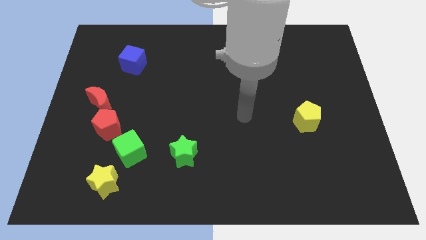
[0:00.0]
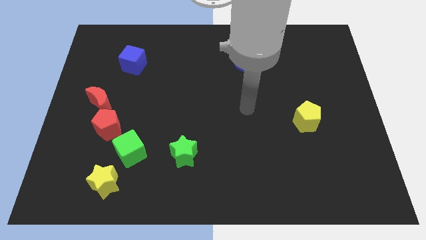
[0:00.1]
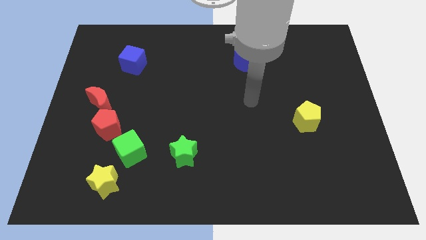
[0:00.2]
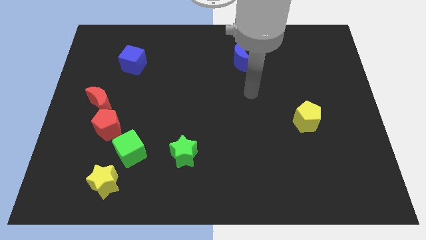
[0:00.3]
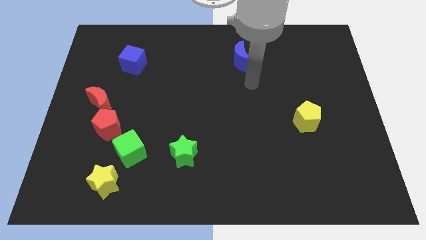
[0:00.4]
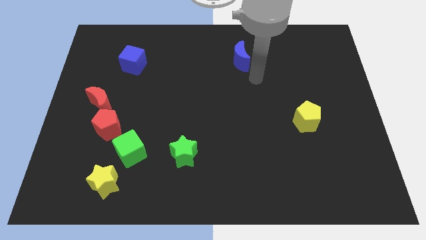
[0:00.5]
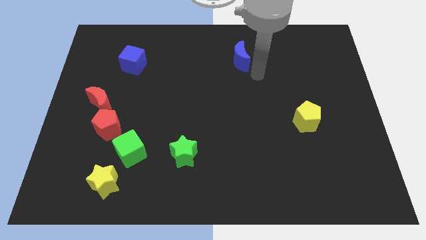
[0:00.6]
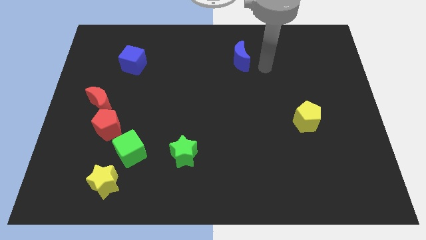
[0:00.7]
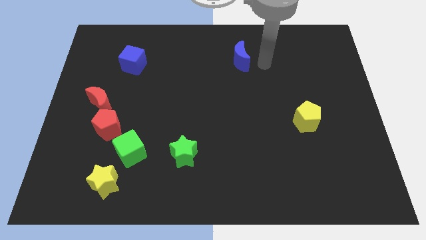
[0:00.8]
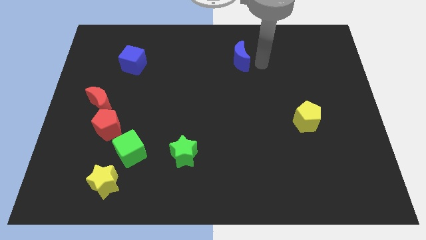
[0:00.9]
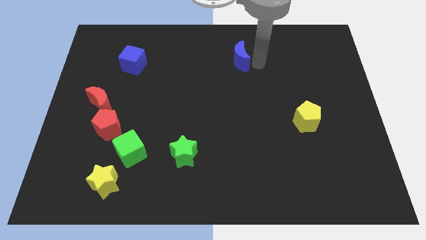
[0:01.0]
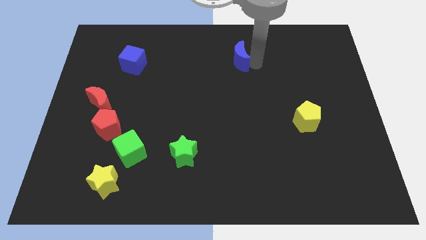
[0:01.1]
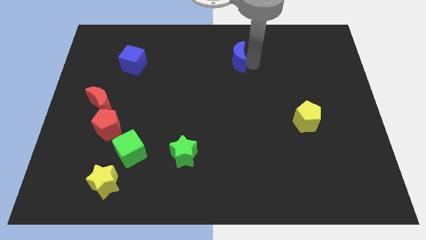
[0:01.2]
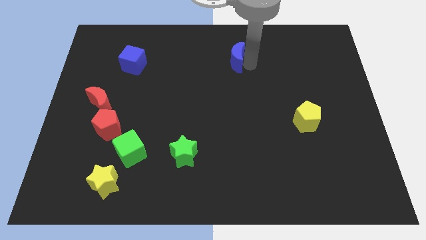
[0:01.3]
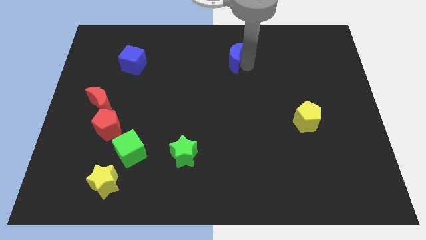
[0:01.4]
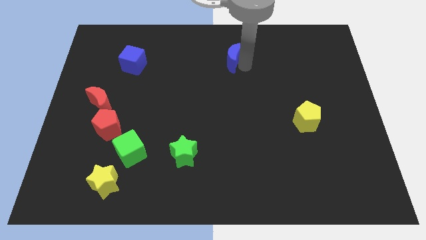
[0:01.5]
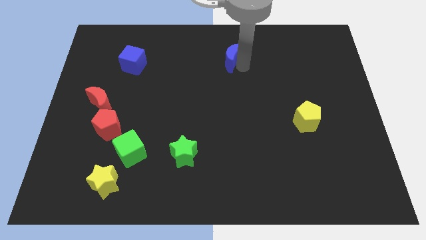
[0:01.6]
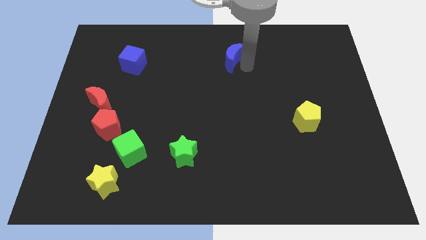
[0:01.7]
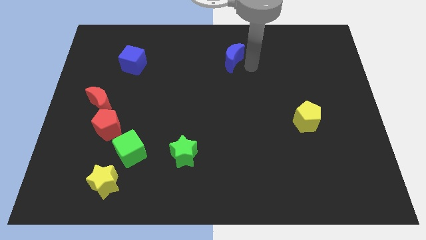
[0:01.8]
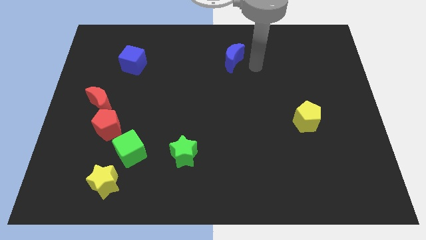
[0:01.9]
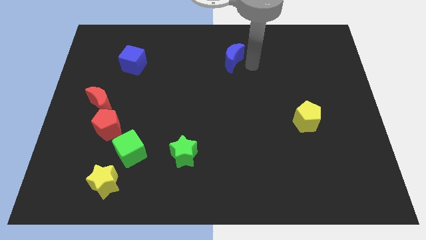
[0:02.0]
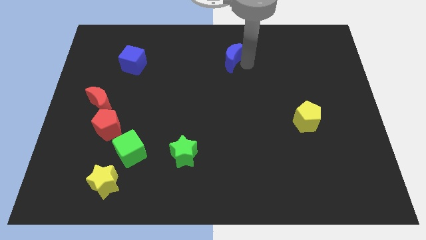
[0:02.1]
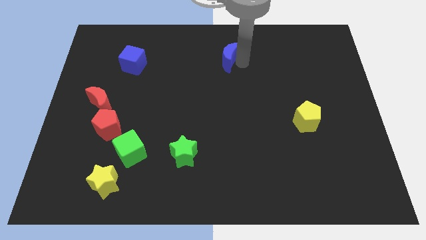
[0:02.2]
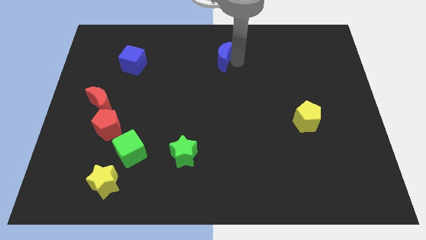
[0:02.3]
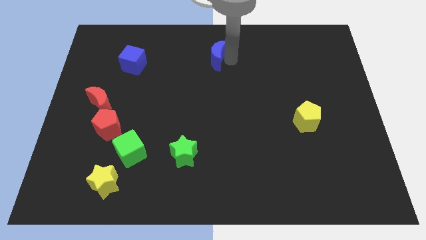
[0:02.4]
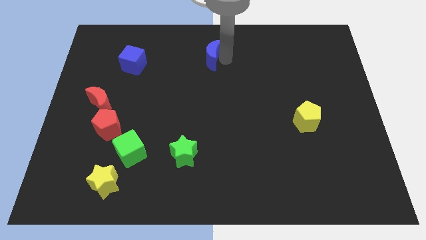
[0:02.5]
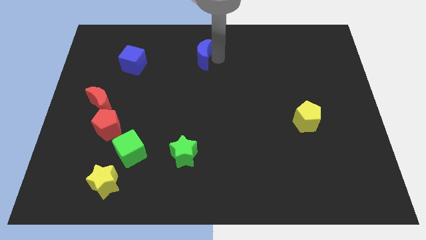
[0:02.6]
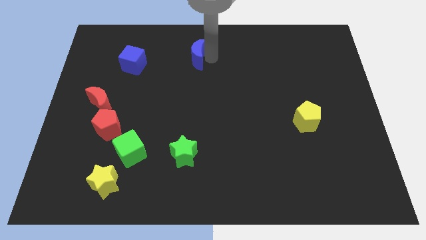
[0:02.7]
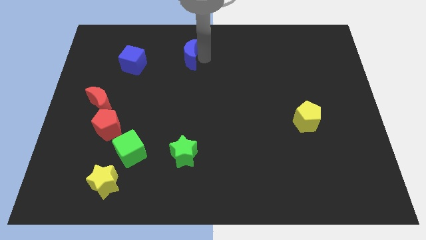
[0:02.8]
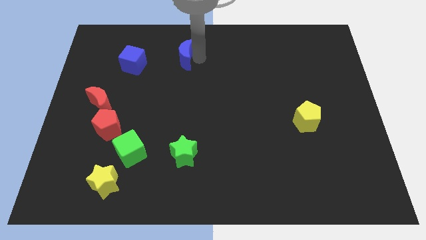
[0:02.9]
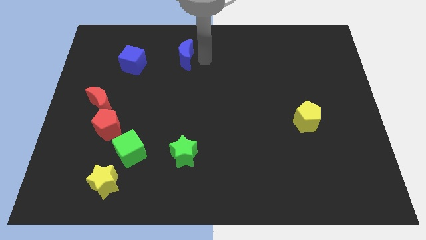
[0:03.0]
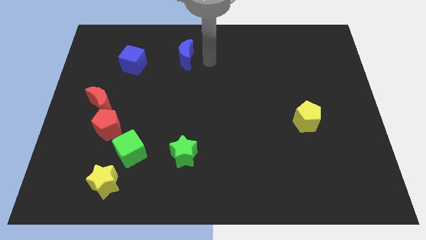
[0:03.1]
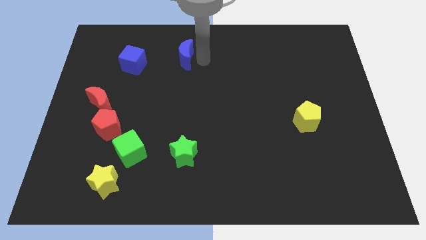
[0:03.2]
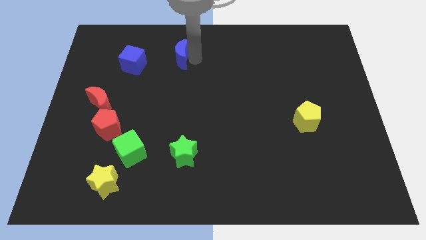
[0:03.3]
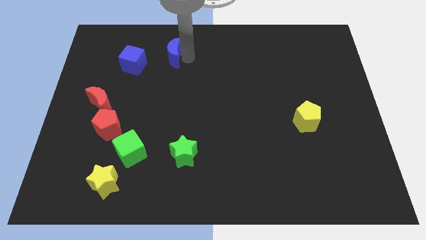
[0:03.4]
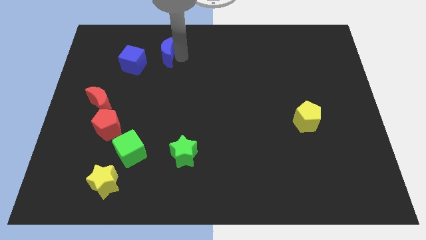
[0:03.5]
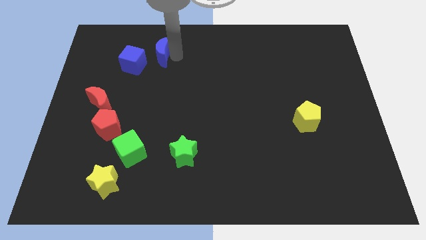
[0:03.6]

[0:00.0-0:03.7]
move the blue moon left

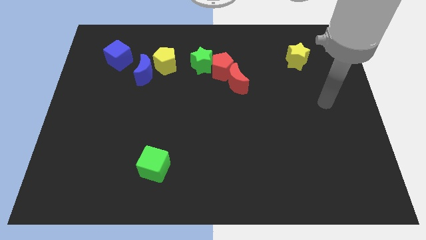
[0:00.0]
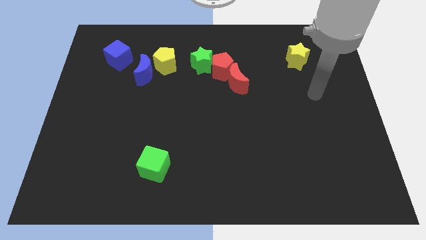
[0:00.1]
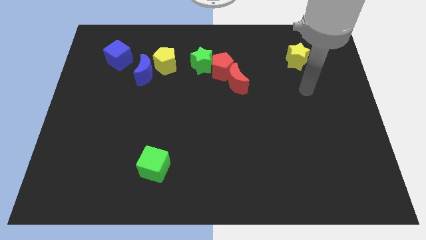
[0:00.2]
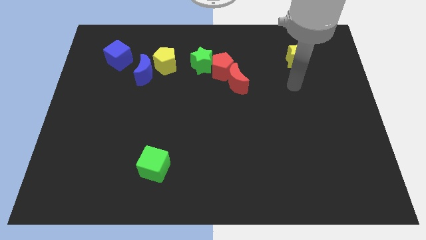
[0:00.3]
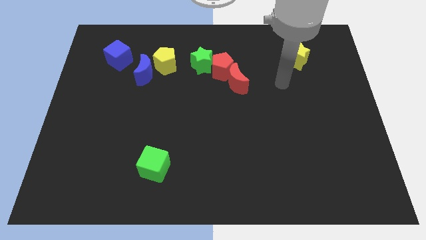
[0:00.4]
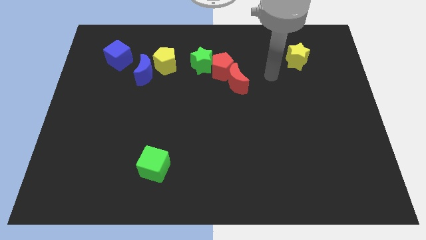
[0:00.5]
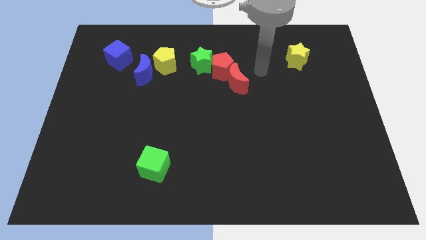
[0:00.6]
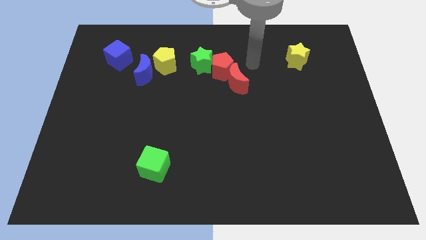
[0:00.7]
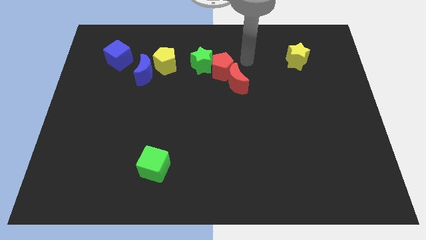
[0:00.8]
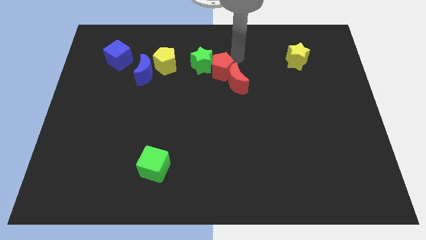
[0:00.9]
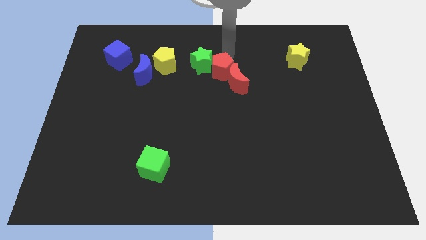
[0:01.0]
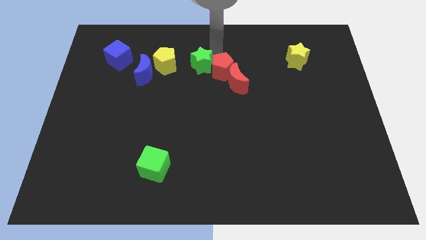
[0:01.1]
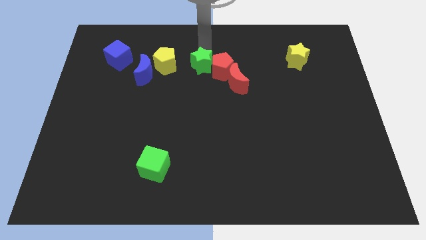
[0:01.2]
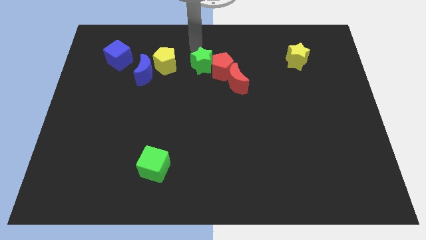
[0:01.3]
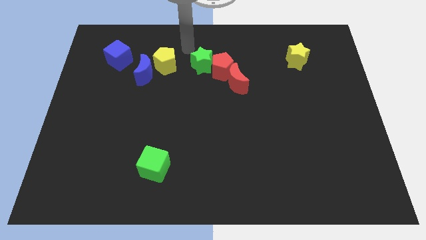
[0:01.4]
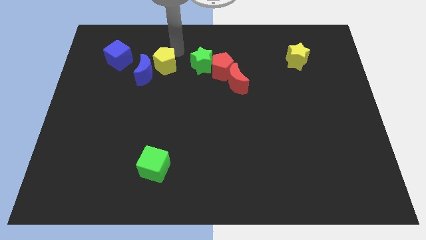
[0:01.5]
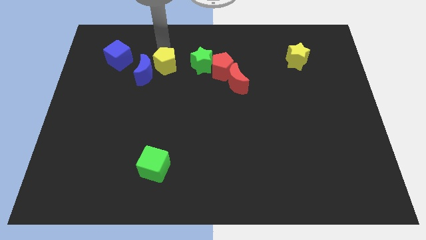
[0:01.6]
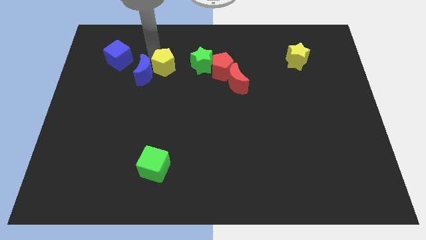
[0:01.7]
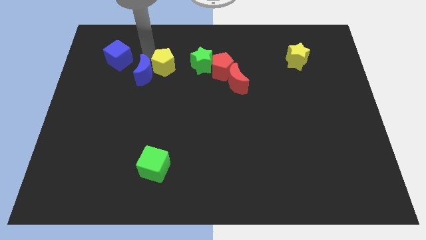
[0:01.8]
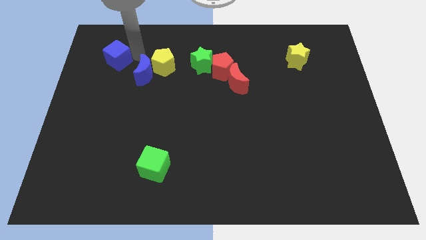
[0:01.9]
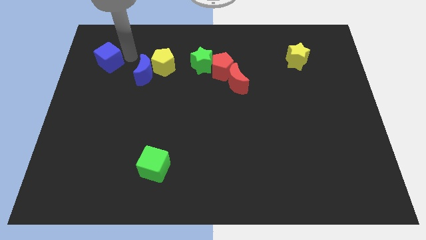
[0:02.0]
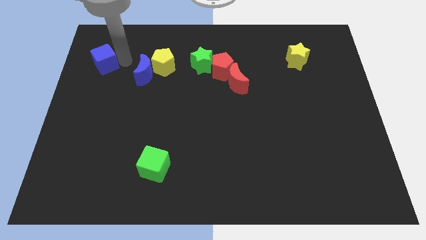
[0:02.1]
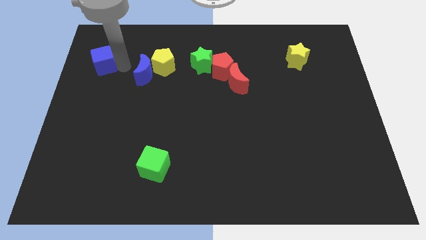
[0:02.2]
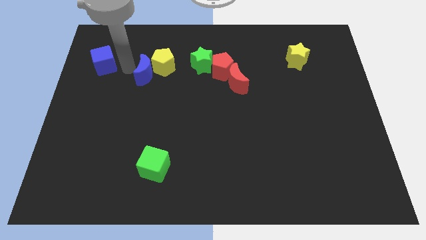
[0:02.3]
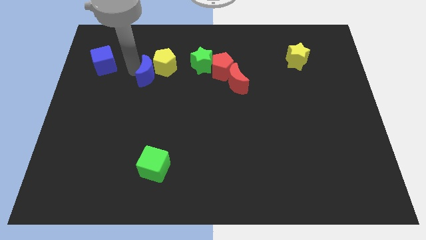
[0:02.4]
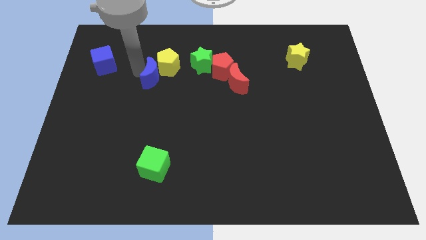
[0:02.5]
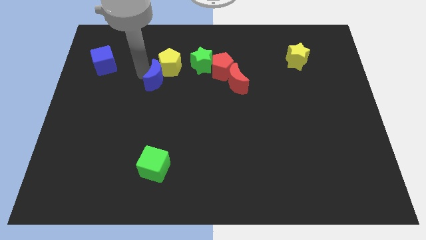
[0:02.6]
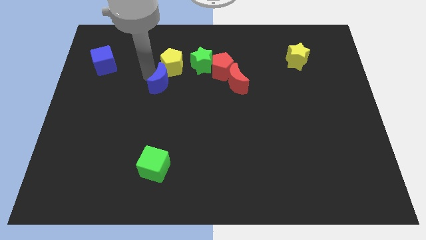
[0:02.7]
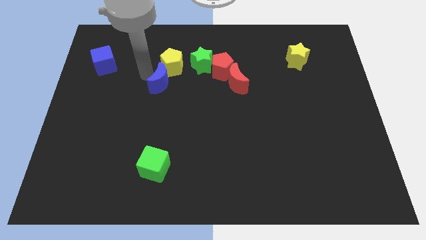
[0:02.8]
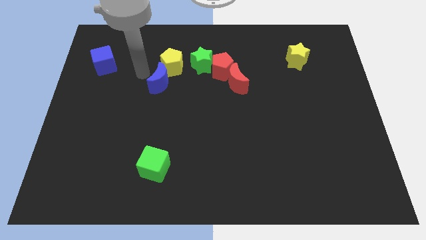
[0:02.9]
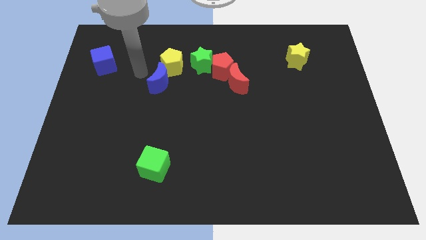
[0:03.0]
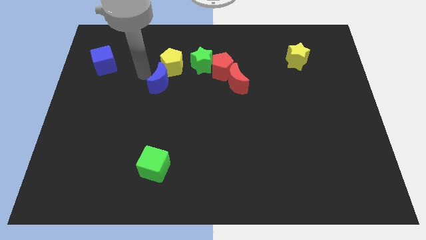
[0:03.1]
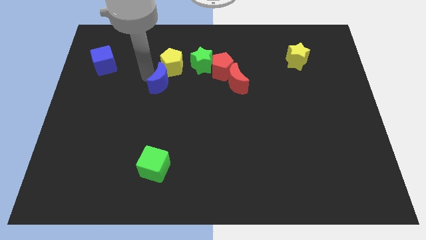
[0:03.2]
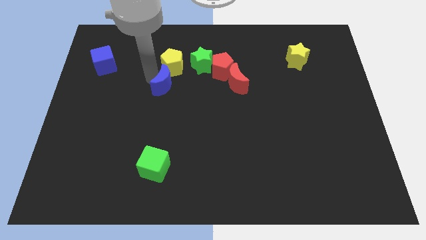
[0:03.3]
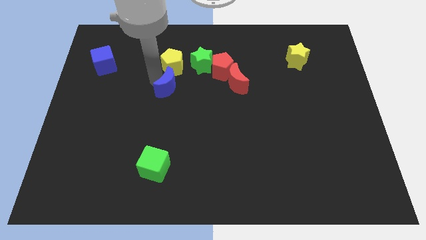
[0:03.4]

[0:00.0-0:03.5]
push the blue moon slightly downwards and then right

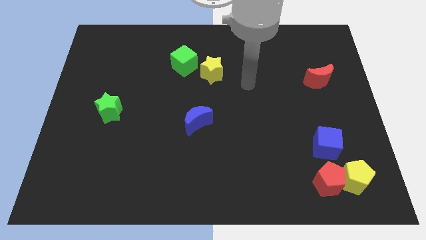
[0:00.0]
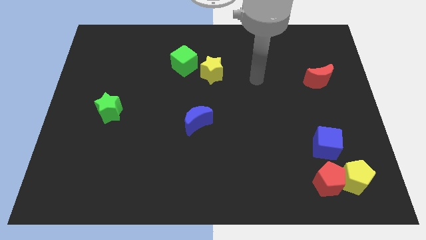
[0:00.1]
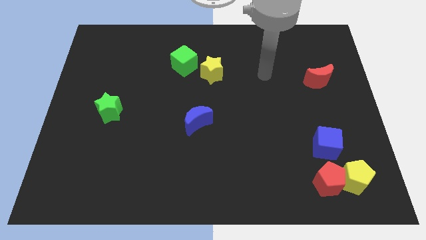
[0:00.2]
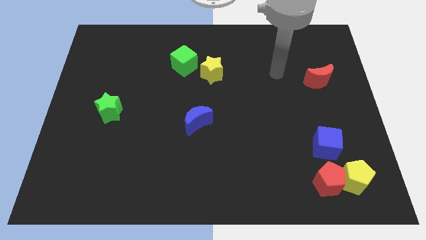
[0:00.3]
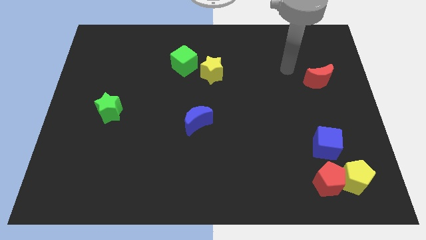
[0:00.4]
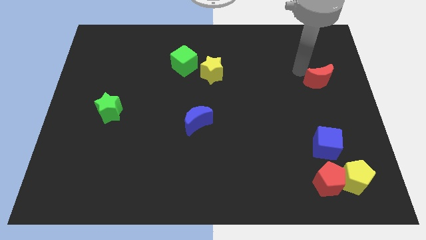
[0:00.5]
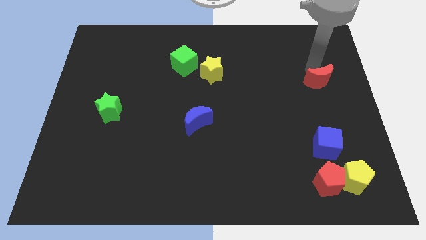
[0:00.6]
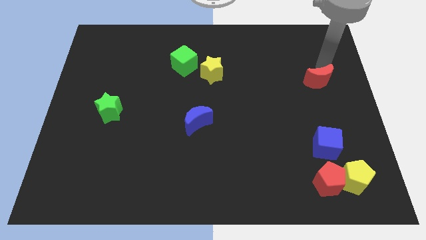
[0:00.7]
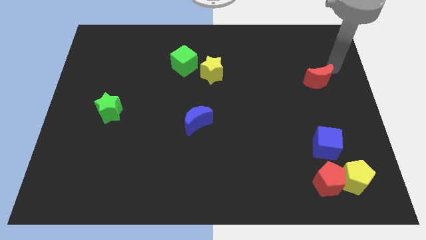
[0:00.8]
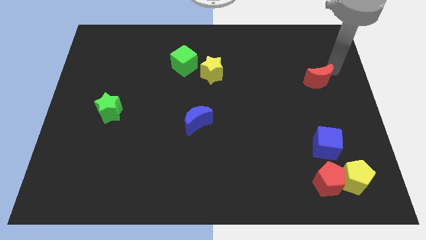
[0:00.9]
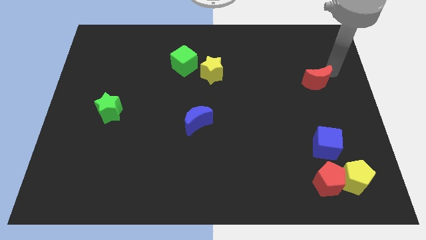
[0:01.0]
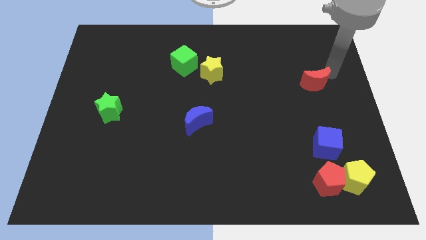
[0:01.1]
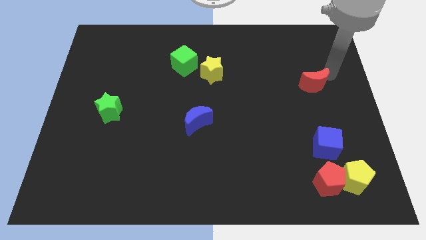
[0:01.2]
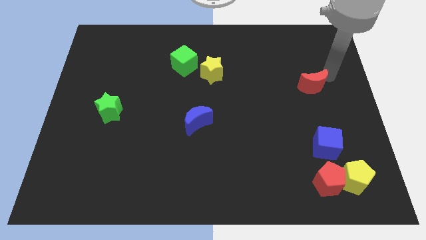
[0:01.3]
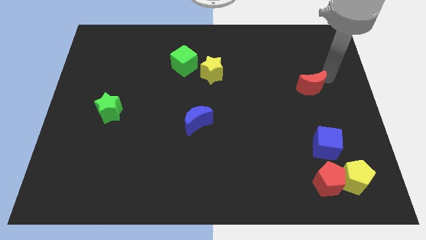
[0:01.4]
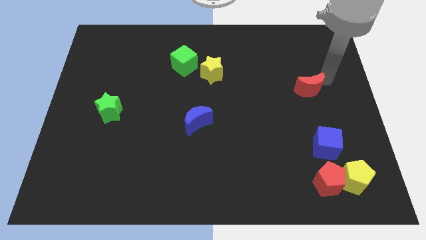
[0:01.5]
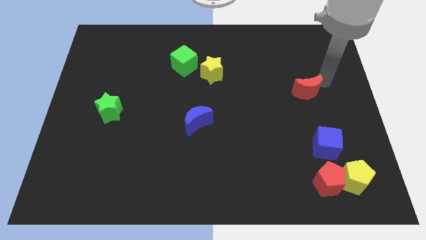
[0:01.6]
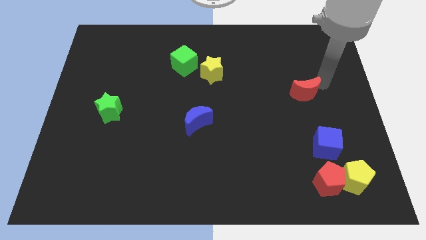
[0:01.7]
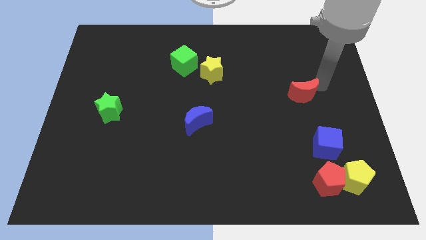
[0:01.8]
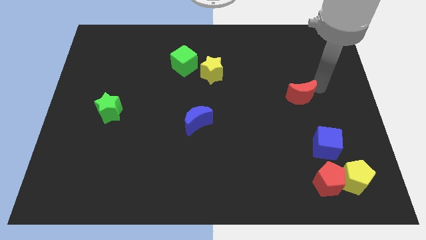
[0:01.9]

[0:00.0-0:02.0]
move the red moon downwards and to the left a little
